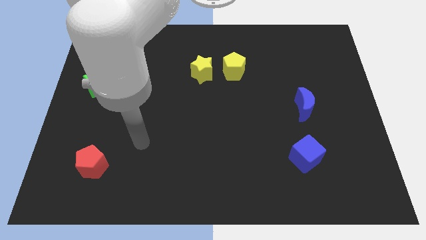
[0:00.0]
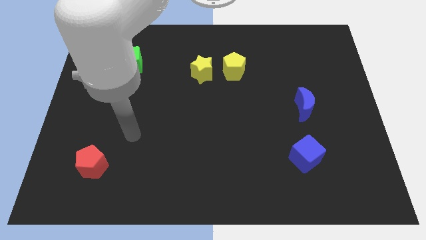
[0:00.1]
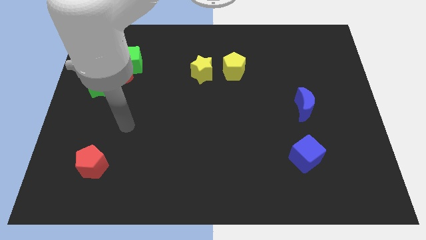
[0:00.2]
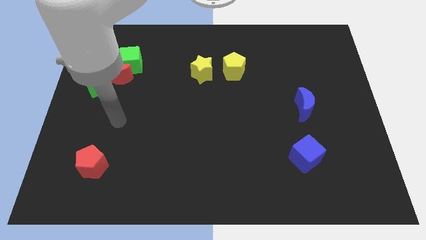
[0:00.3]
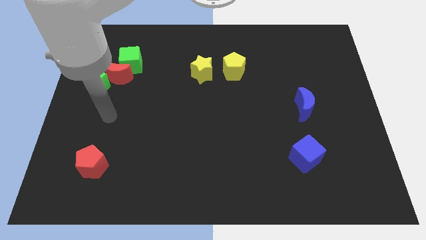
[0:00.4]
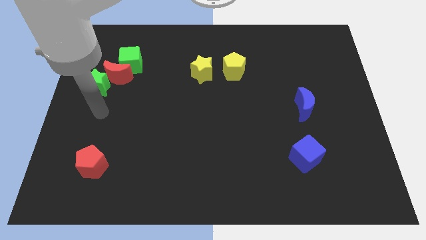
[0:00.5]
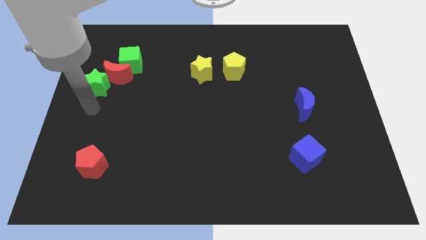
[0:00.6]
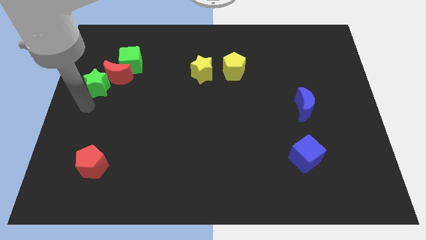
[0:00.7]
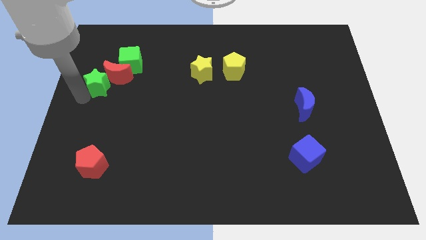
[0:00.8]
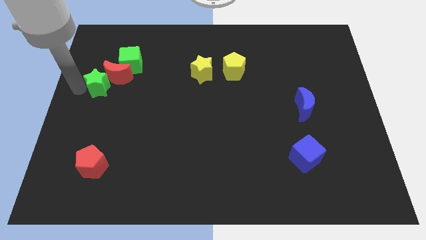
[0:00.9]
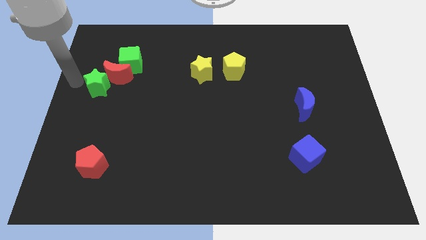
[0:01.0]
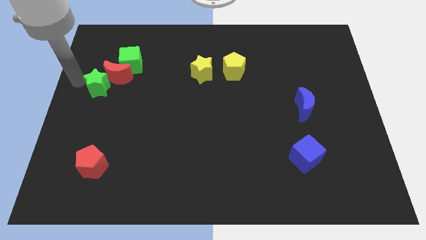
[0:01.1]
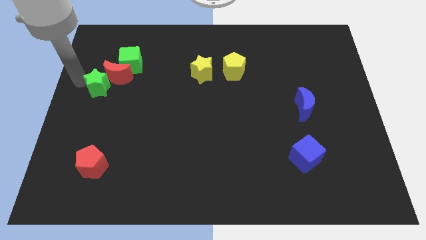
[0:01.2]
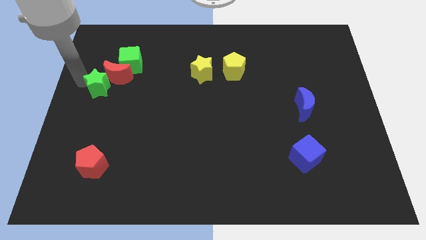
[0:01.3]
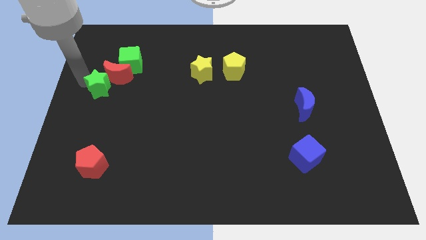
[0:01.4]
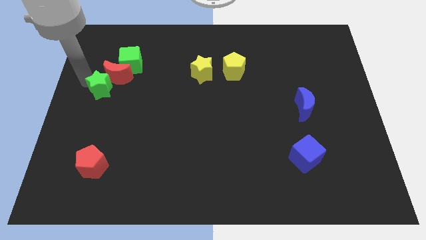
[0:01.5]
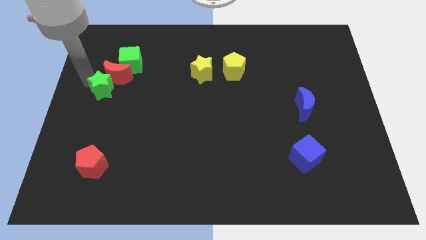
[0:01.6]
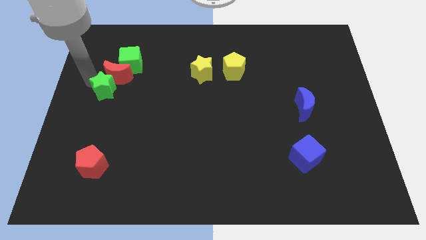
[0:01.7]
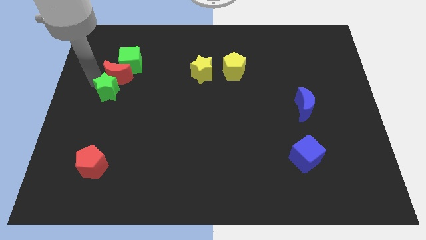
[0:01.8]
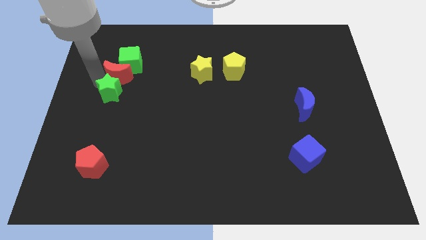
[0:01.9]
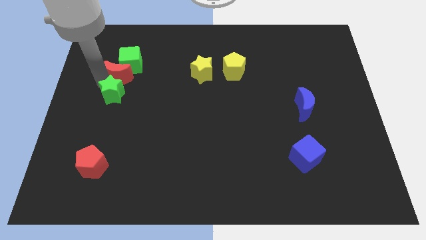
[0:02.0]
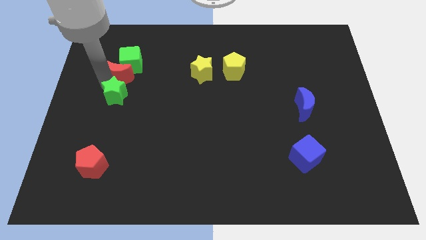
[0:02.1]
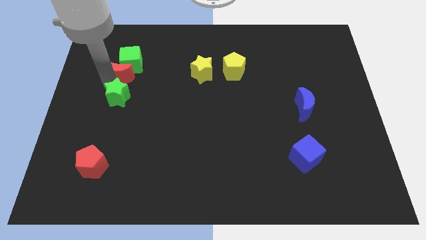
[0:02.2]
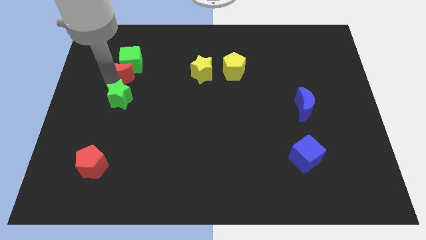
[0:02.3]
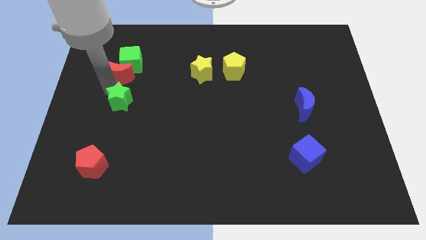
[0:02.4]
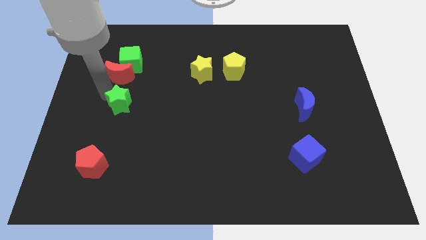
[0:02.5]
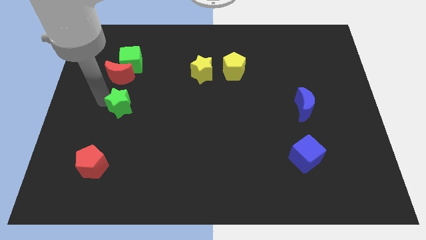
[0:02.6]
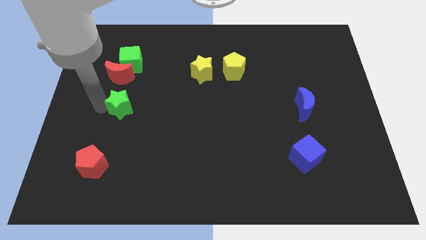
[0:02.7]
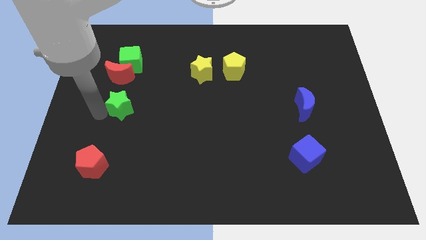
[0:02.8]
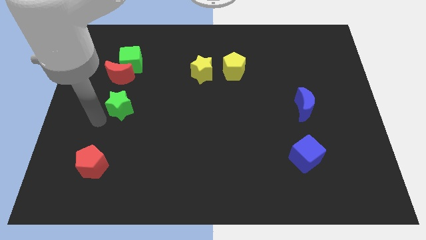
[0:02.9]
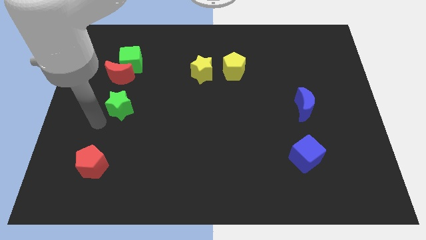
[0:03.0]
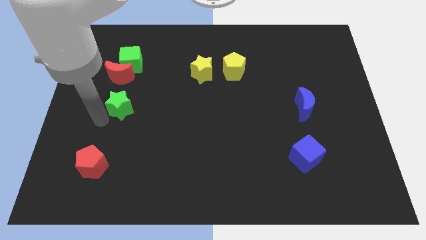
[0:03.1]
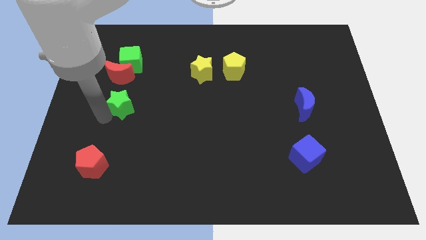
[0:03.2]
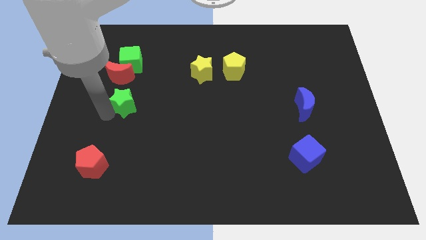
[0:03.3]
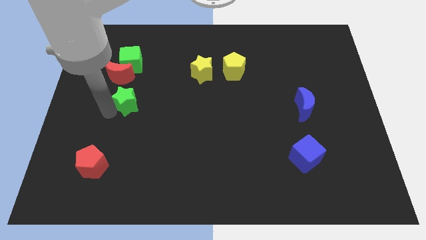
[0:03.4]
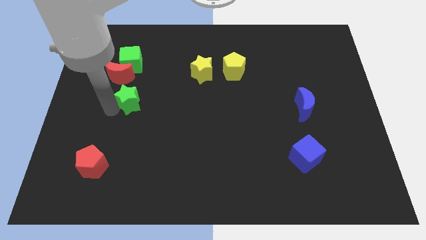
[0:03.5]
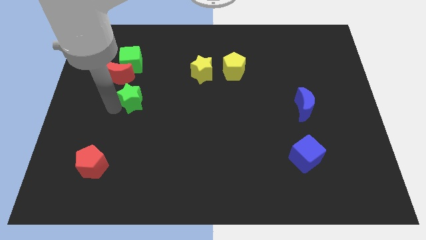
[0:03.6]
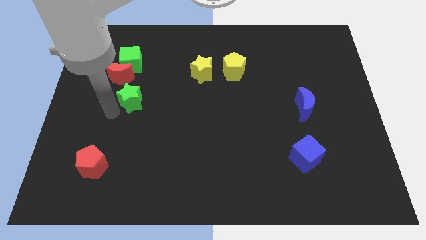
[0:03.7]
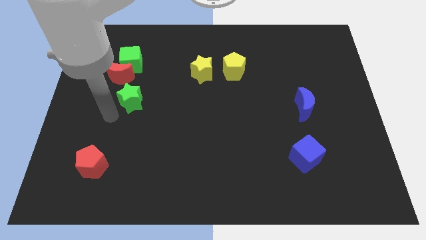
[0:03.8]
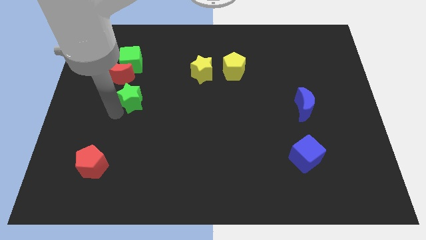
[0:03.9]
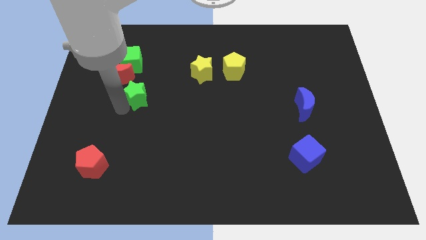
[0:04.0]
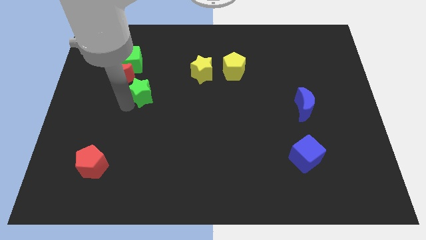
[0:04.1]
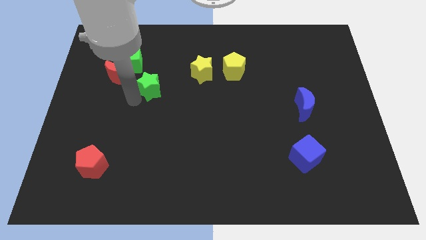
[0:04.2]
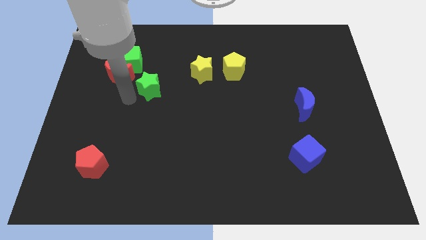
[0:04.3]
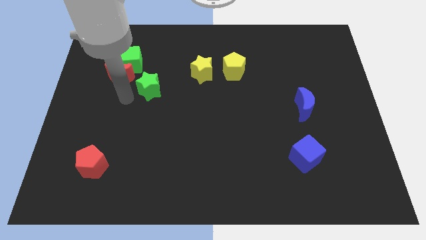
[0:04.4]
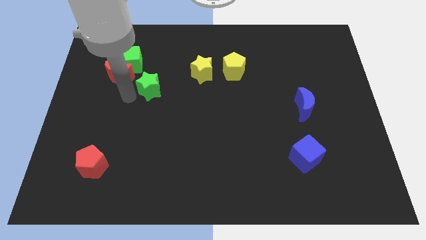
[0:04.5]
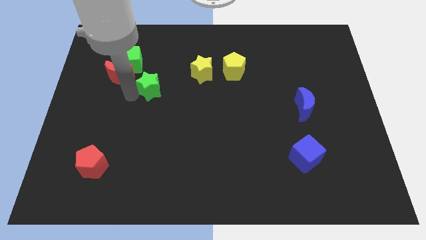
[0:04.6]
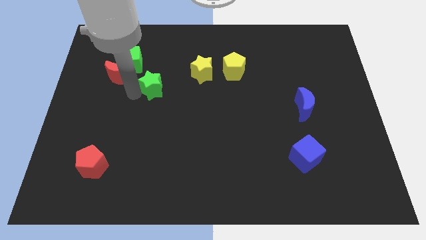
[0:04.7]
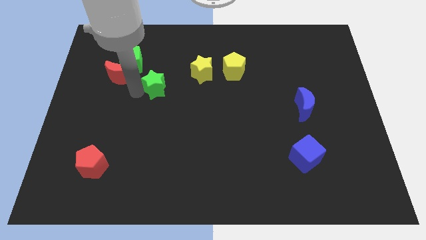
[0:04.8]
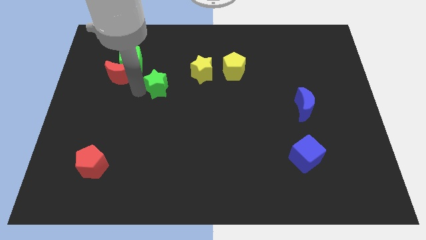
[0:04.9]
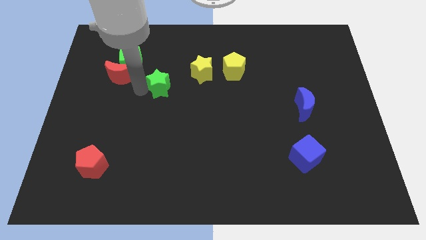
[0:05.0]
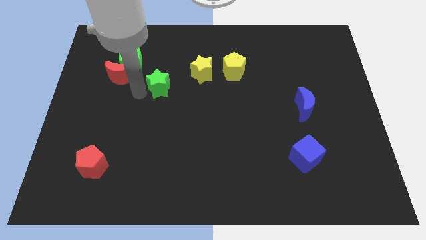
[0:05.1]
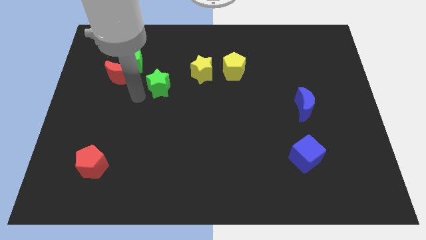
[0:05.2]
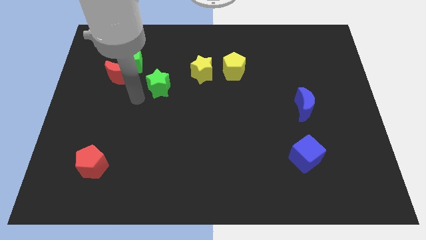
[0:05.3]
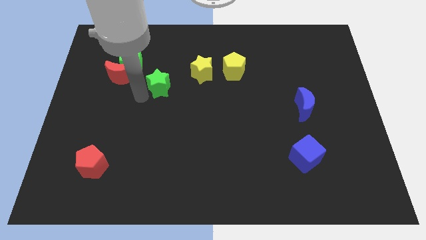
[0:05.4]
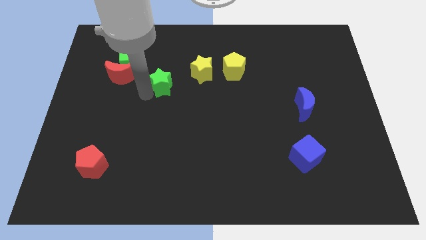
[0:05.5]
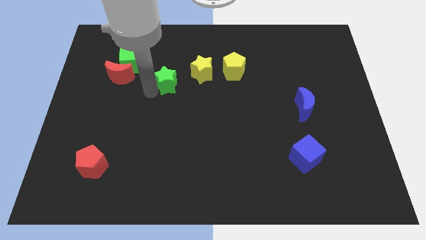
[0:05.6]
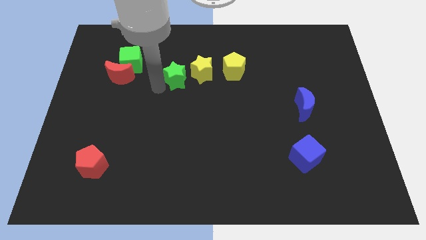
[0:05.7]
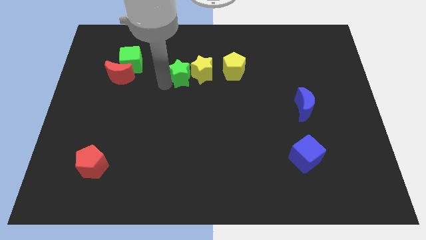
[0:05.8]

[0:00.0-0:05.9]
move the green star close to the yellow star

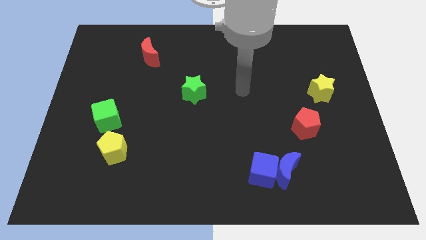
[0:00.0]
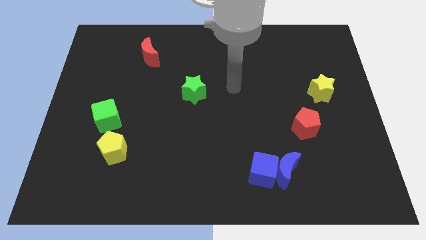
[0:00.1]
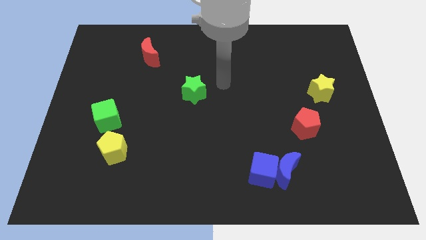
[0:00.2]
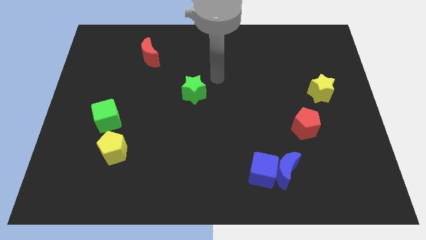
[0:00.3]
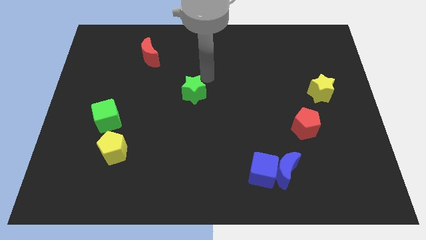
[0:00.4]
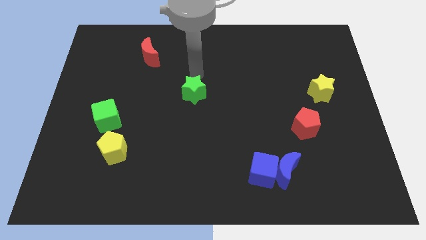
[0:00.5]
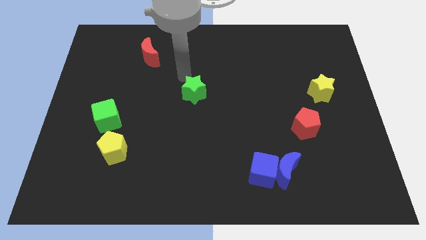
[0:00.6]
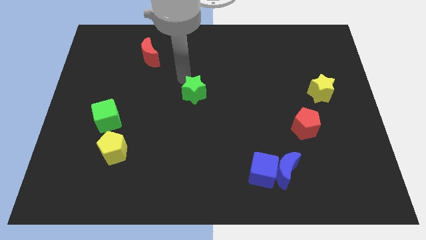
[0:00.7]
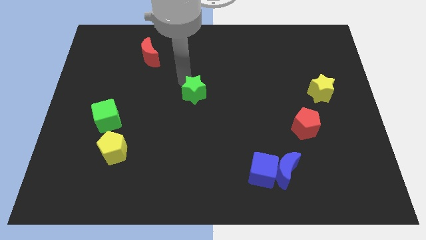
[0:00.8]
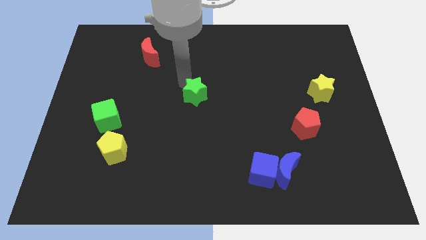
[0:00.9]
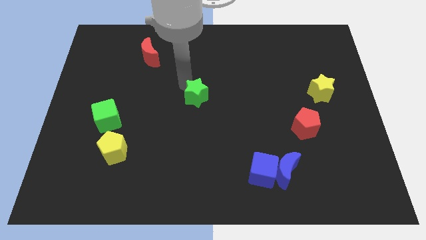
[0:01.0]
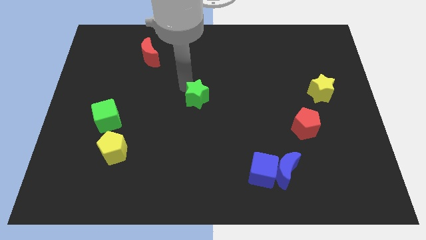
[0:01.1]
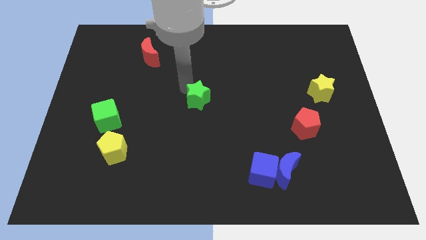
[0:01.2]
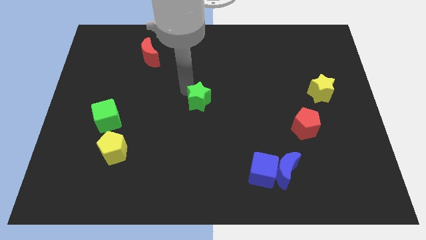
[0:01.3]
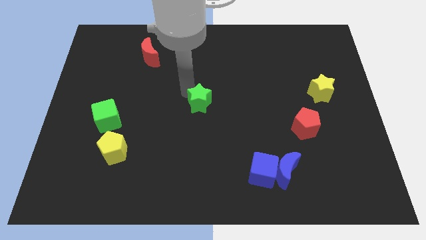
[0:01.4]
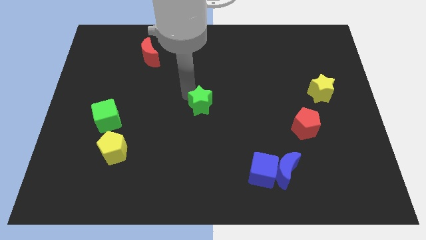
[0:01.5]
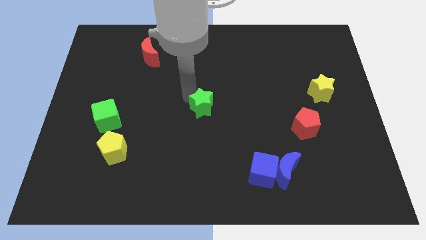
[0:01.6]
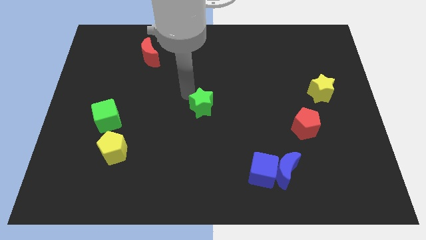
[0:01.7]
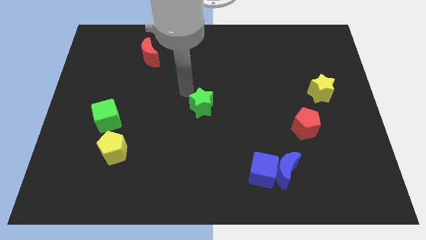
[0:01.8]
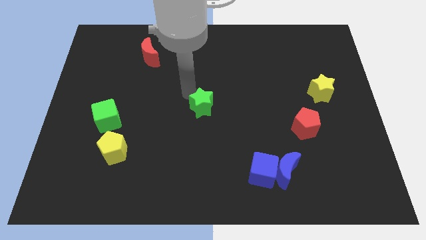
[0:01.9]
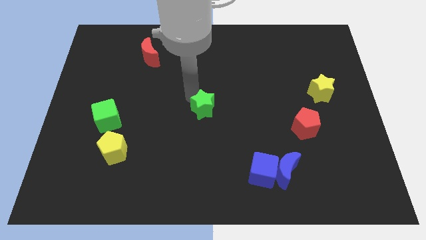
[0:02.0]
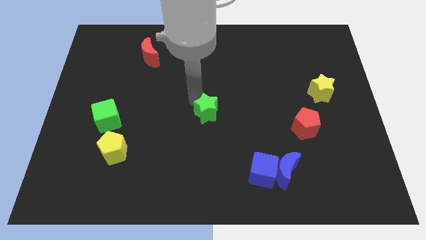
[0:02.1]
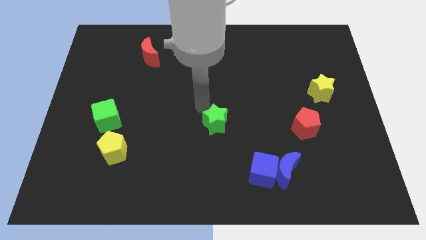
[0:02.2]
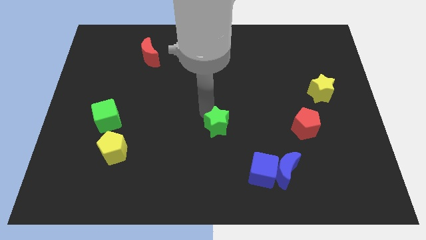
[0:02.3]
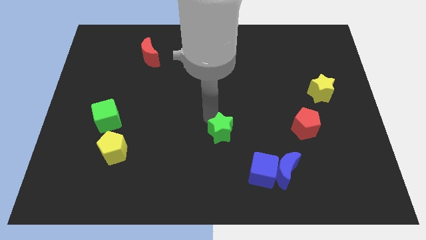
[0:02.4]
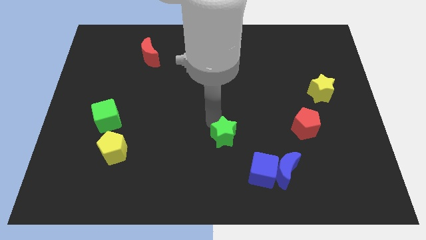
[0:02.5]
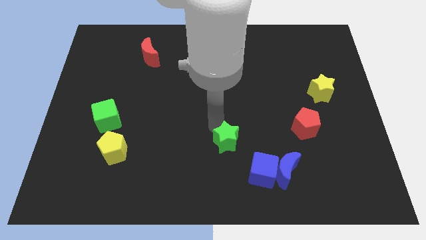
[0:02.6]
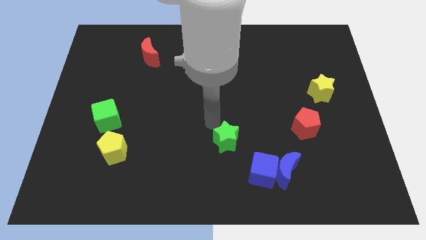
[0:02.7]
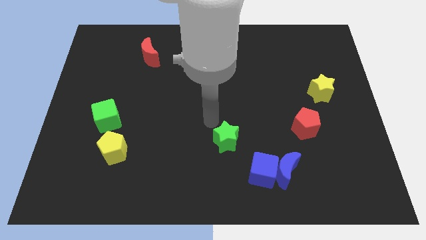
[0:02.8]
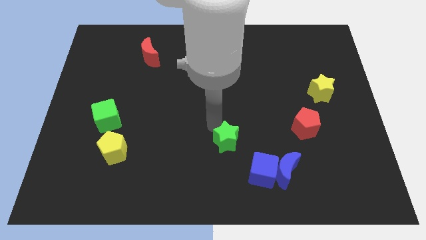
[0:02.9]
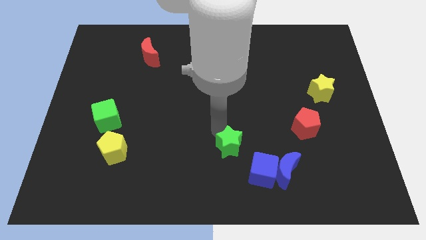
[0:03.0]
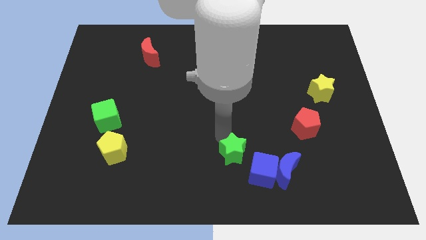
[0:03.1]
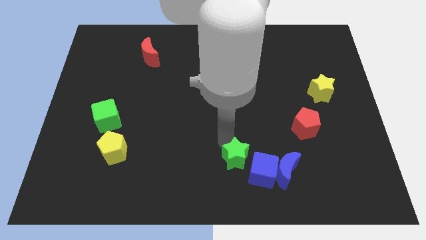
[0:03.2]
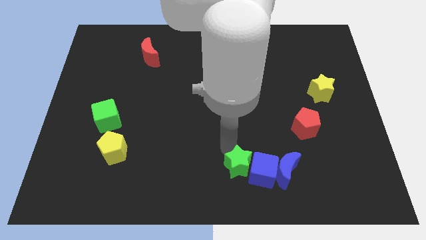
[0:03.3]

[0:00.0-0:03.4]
move the green star next to the blue cube
